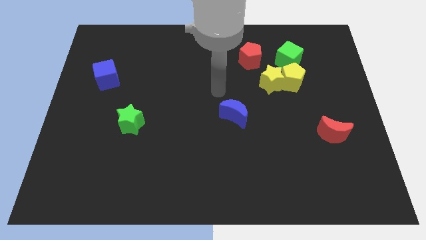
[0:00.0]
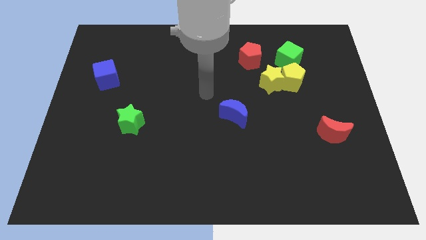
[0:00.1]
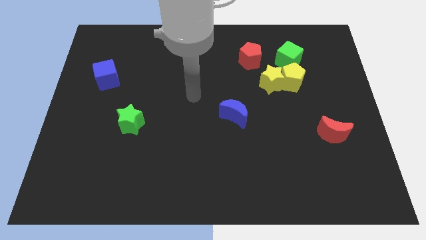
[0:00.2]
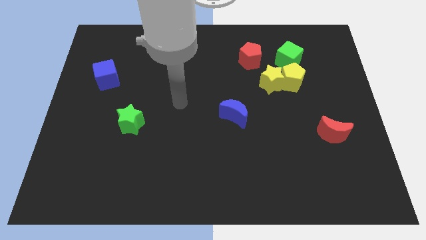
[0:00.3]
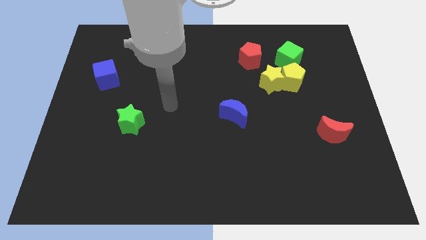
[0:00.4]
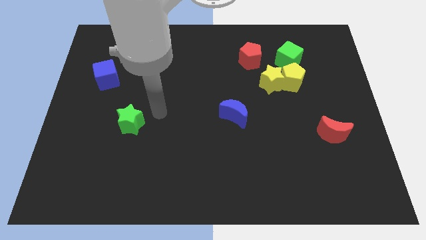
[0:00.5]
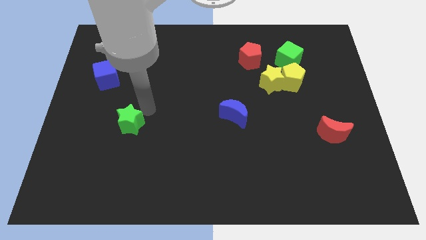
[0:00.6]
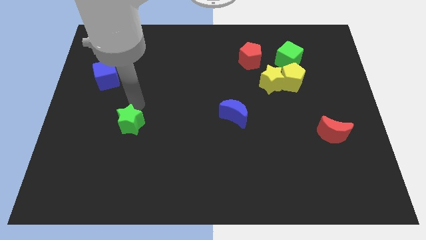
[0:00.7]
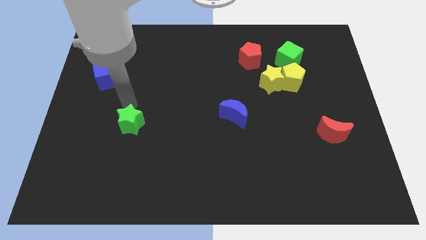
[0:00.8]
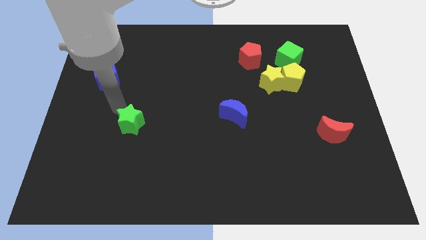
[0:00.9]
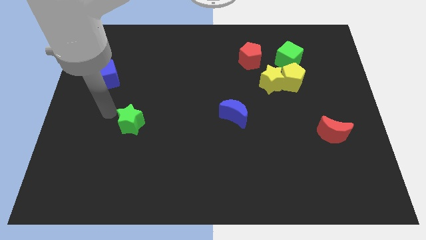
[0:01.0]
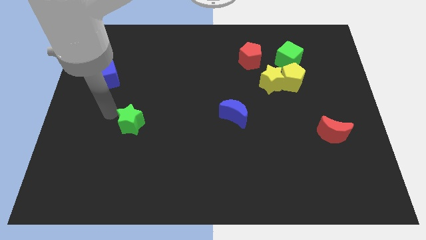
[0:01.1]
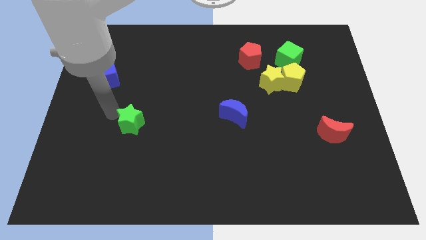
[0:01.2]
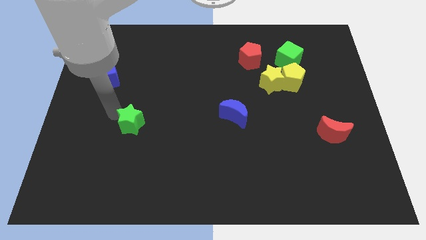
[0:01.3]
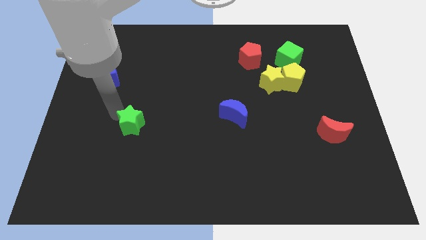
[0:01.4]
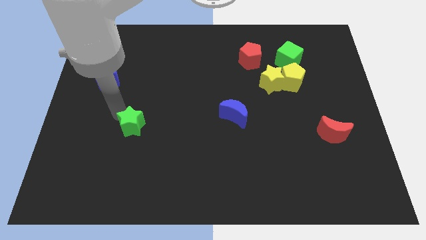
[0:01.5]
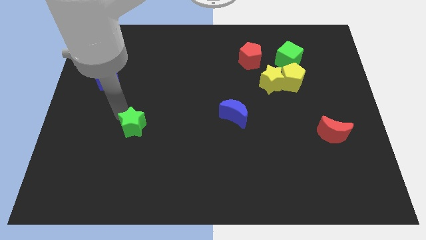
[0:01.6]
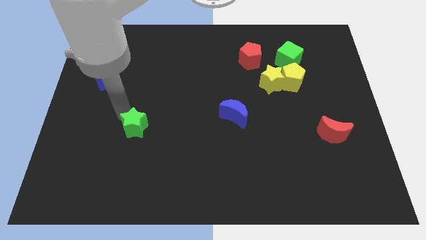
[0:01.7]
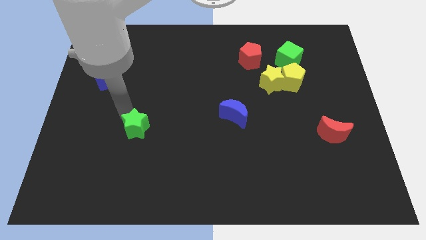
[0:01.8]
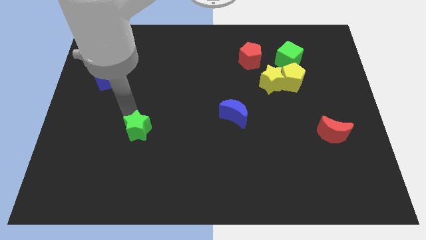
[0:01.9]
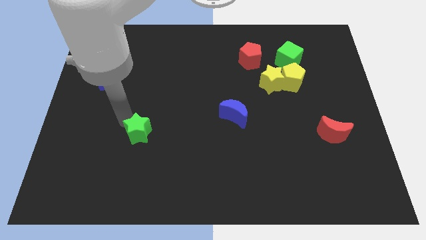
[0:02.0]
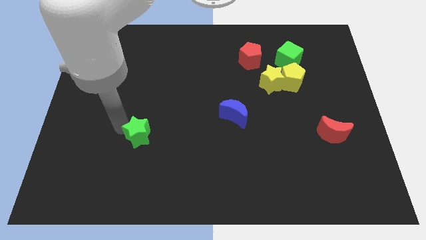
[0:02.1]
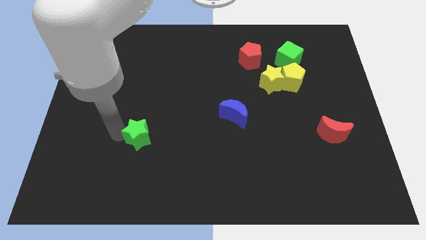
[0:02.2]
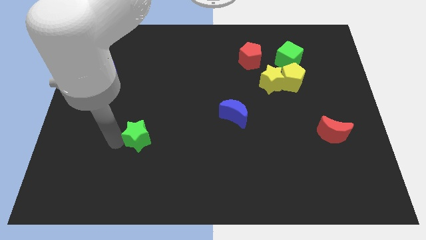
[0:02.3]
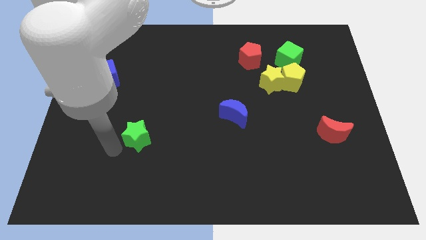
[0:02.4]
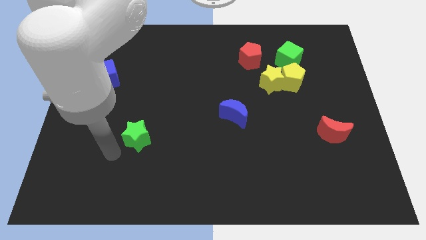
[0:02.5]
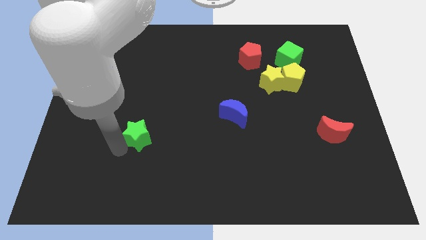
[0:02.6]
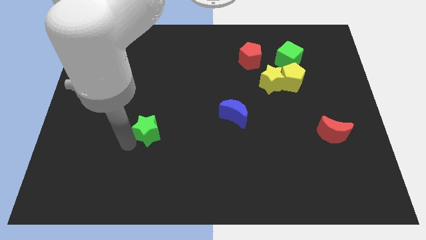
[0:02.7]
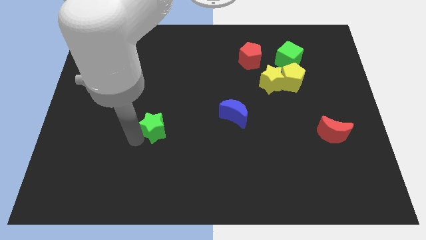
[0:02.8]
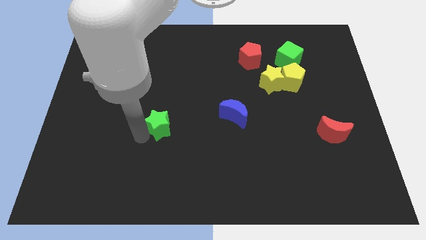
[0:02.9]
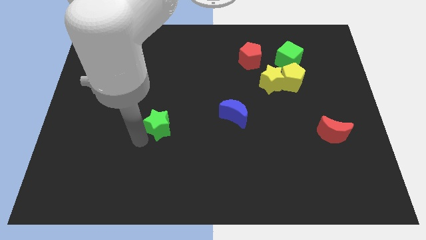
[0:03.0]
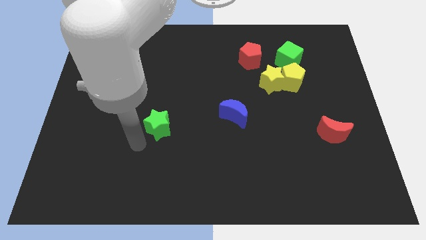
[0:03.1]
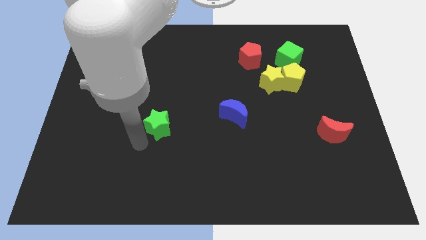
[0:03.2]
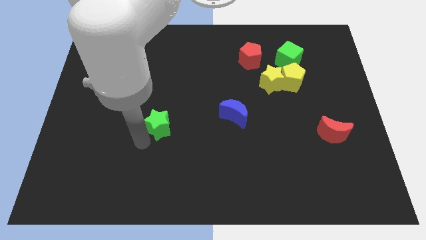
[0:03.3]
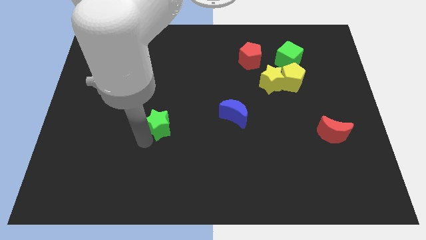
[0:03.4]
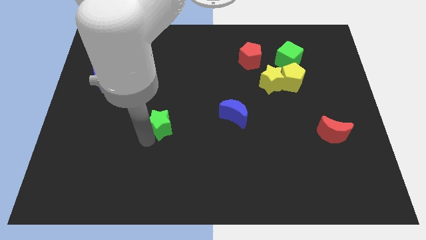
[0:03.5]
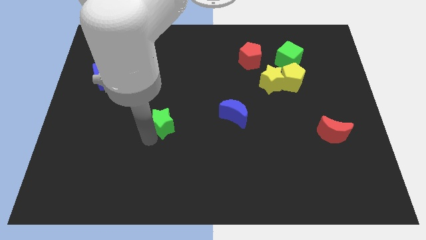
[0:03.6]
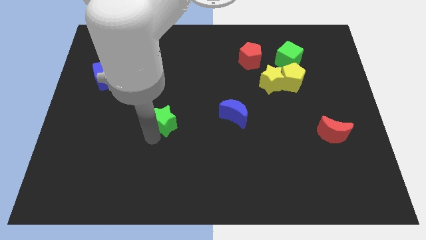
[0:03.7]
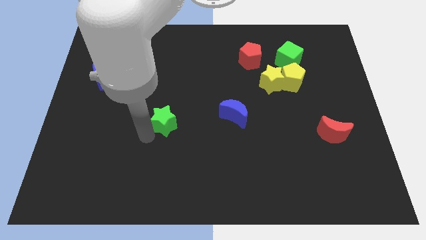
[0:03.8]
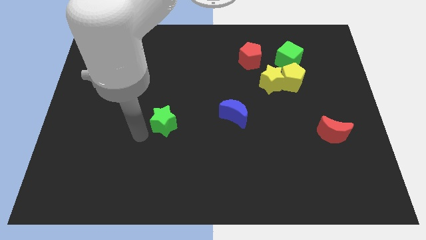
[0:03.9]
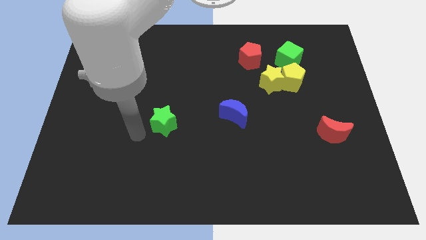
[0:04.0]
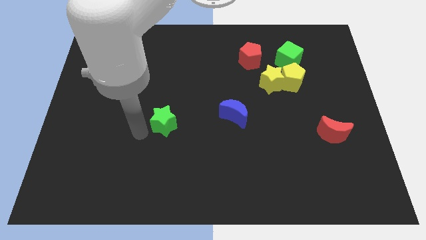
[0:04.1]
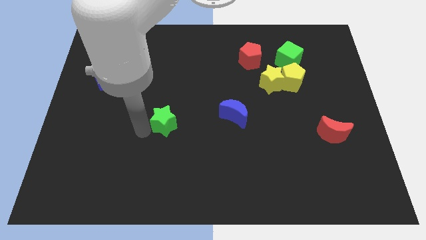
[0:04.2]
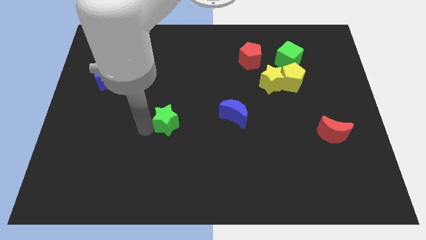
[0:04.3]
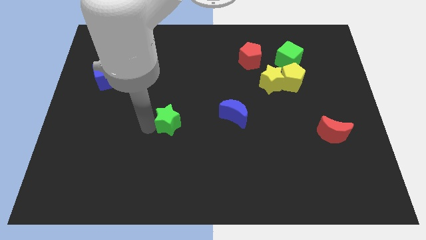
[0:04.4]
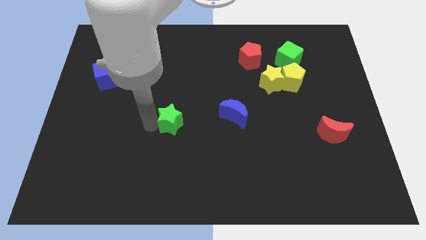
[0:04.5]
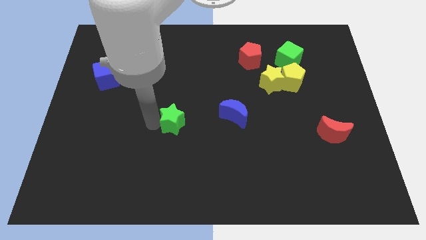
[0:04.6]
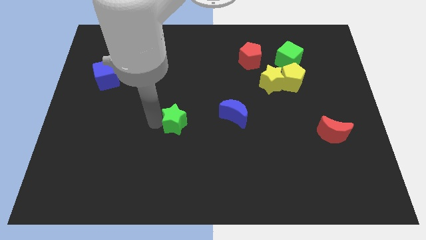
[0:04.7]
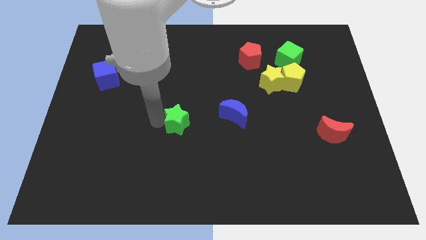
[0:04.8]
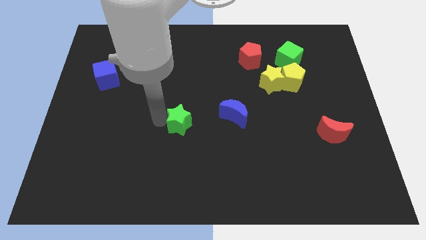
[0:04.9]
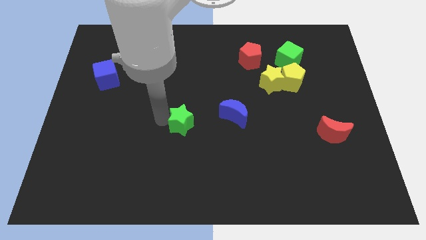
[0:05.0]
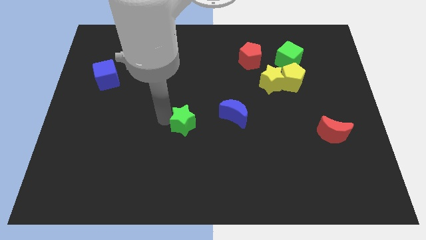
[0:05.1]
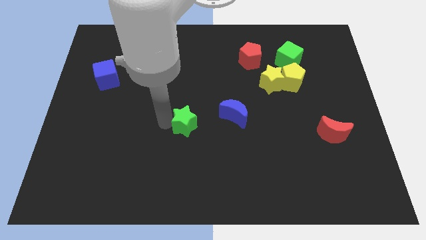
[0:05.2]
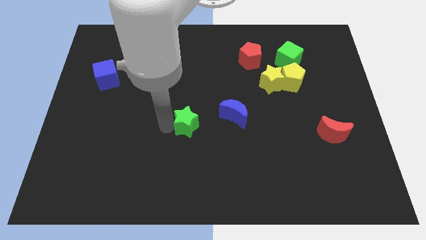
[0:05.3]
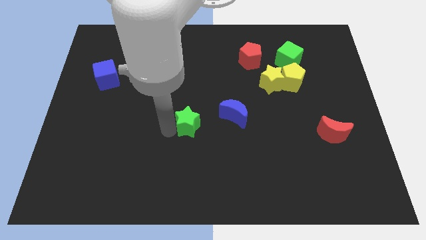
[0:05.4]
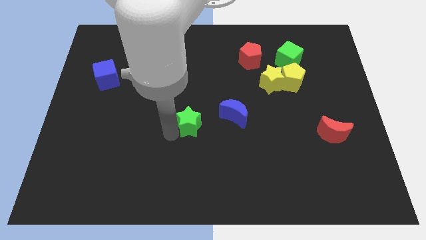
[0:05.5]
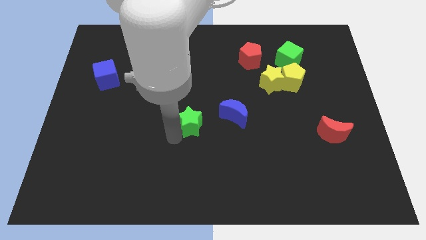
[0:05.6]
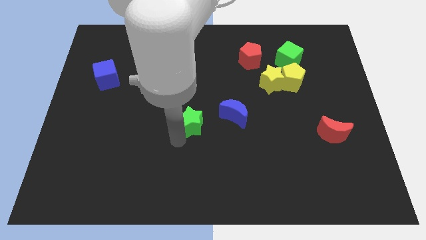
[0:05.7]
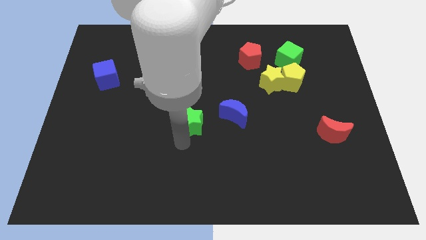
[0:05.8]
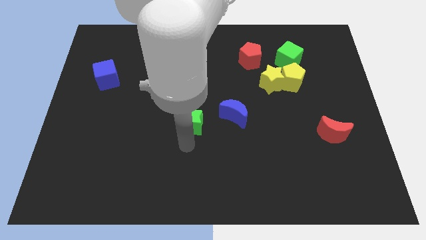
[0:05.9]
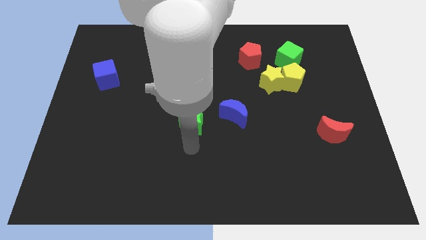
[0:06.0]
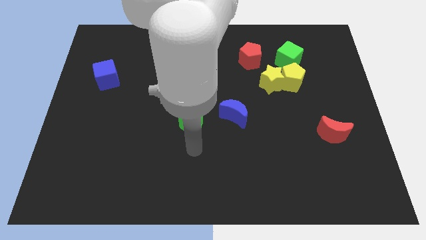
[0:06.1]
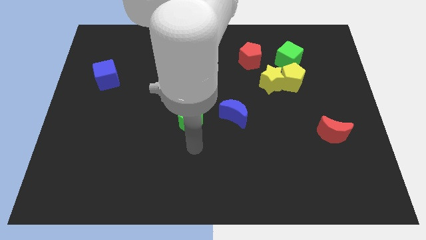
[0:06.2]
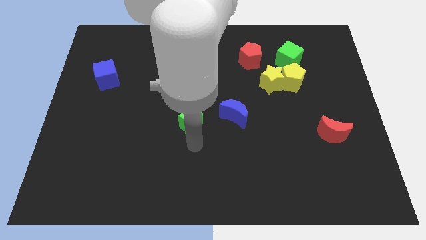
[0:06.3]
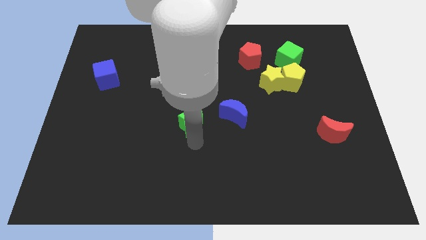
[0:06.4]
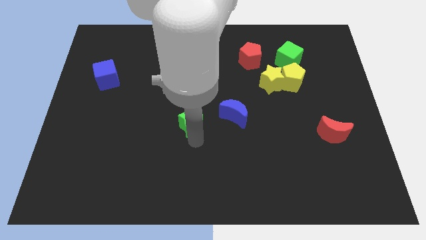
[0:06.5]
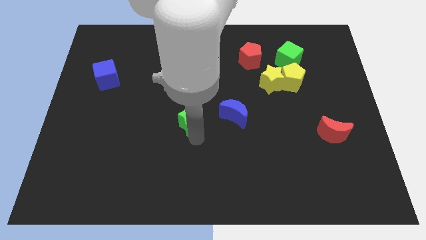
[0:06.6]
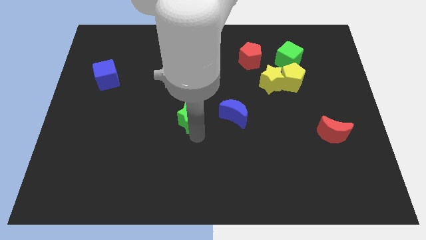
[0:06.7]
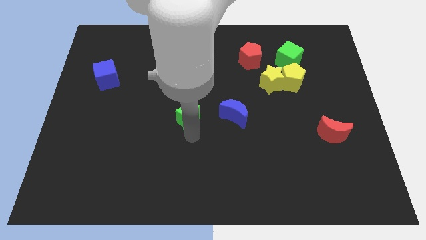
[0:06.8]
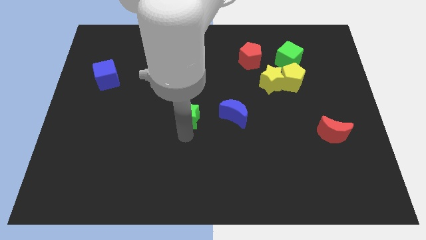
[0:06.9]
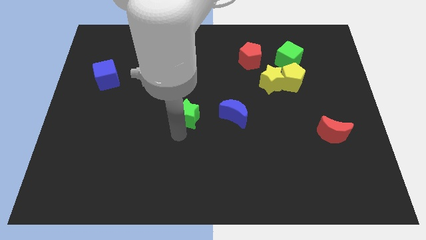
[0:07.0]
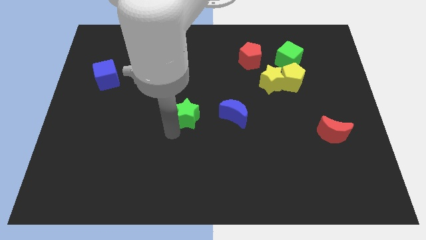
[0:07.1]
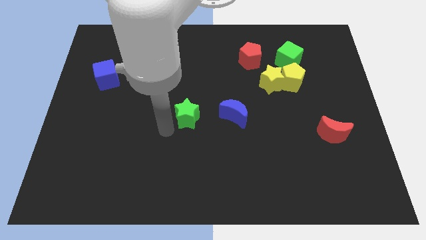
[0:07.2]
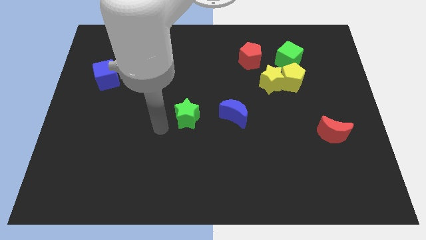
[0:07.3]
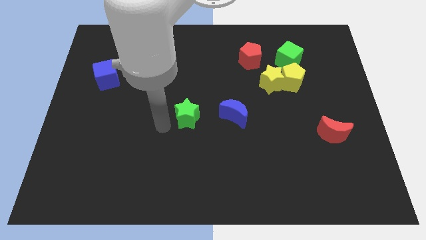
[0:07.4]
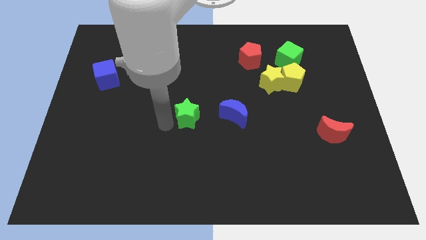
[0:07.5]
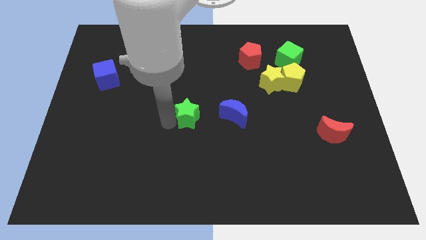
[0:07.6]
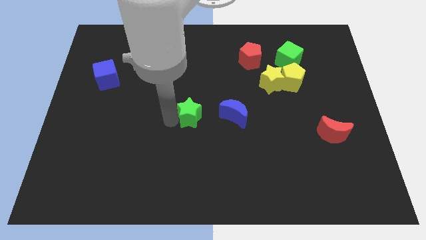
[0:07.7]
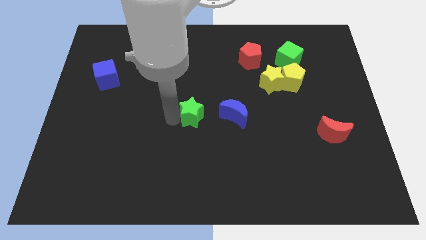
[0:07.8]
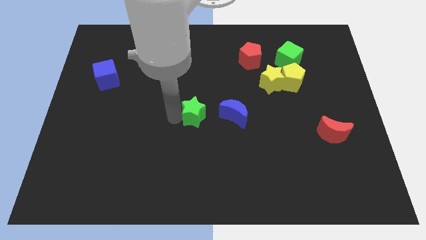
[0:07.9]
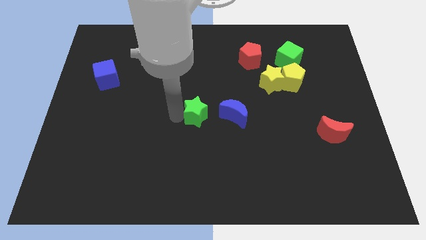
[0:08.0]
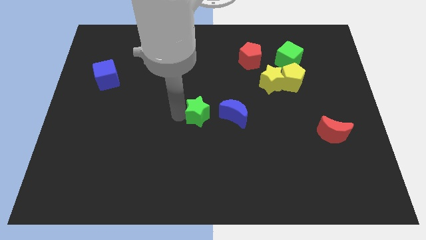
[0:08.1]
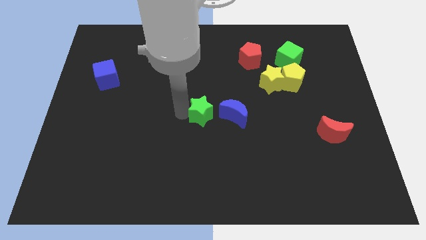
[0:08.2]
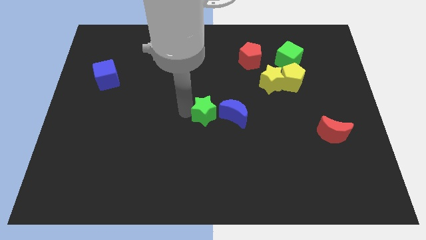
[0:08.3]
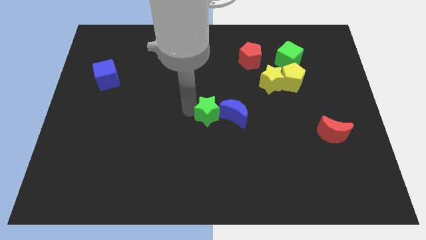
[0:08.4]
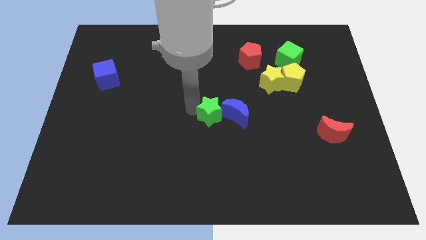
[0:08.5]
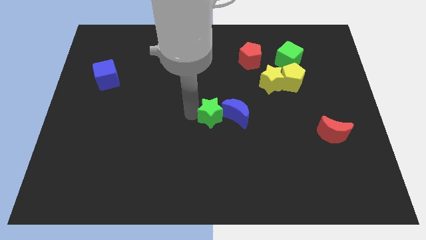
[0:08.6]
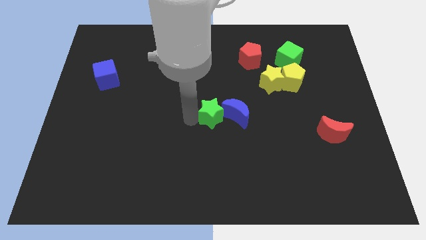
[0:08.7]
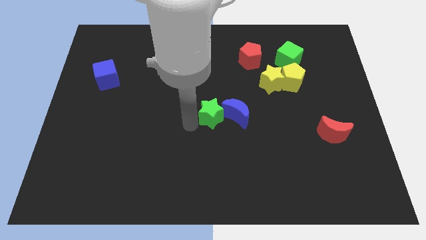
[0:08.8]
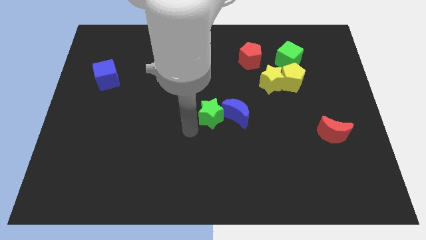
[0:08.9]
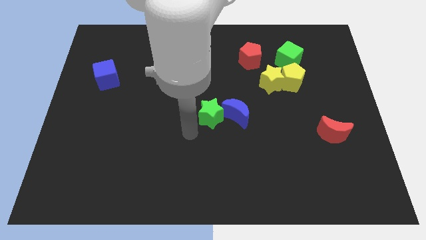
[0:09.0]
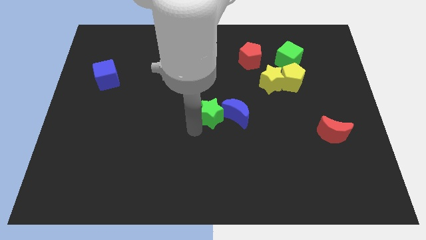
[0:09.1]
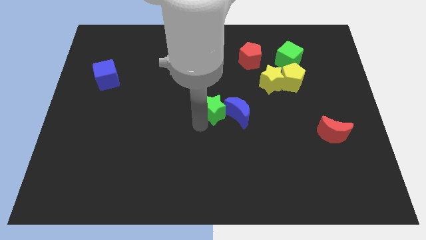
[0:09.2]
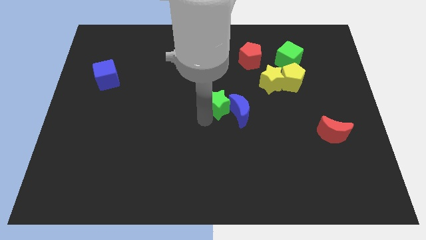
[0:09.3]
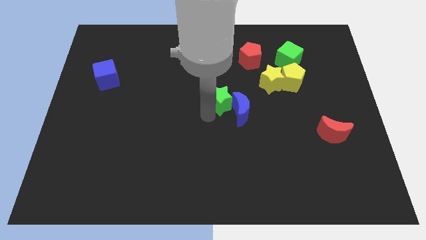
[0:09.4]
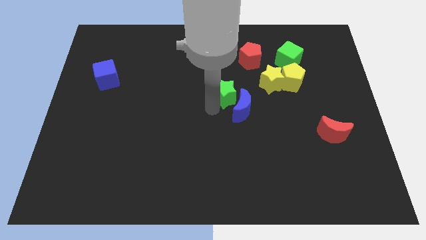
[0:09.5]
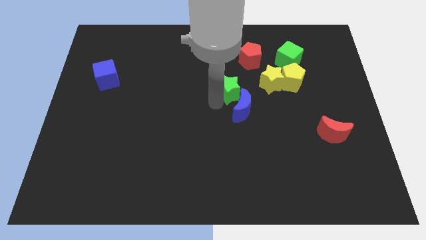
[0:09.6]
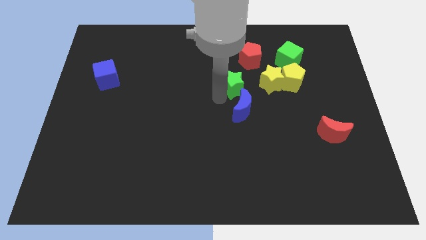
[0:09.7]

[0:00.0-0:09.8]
push the green star to the bottom side of the red pentagon
